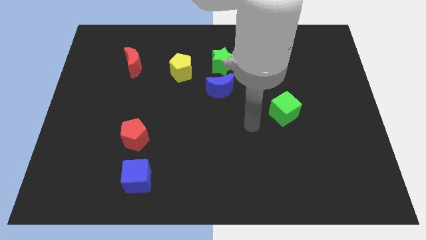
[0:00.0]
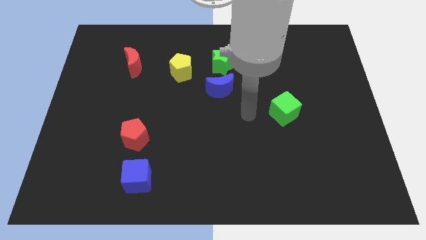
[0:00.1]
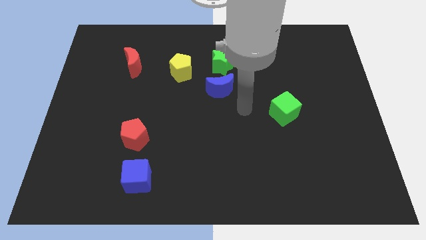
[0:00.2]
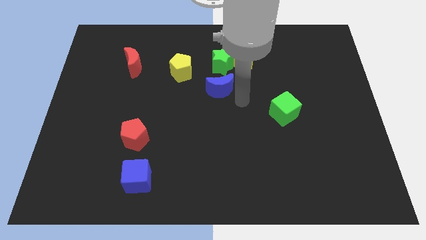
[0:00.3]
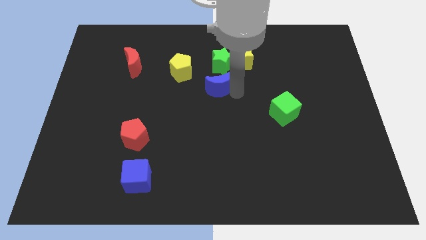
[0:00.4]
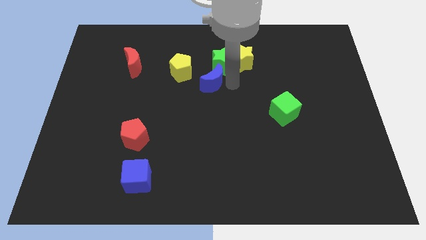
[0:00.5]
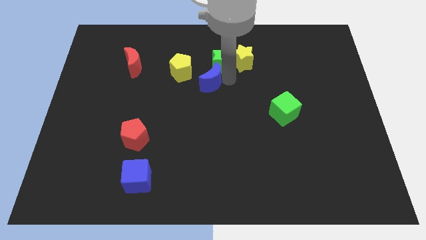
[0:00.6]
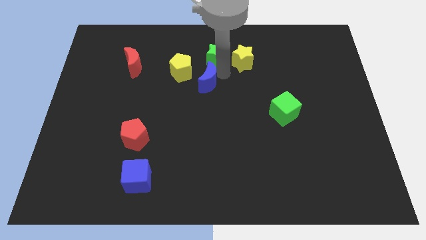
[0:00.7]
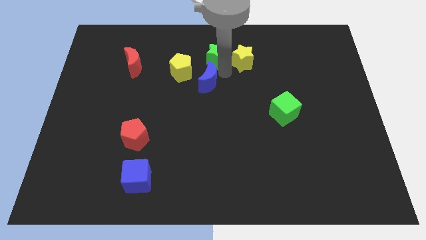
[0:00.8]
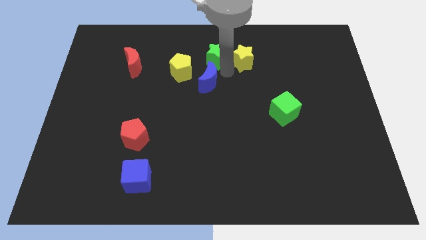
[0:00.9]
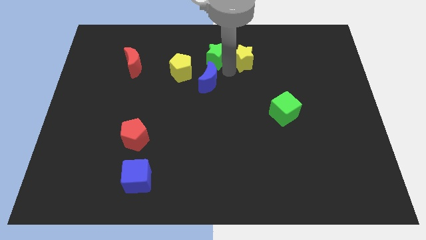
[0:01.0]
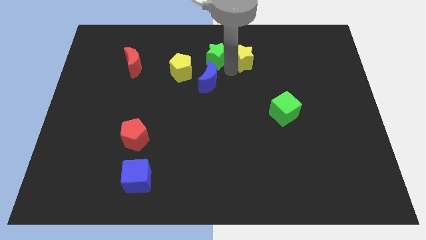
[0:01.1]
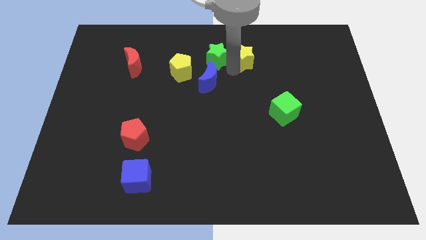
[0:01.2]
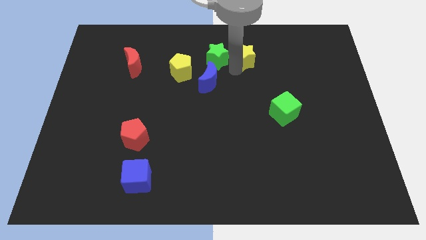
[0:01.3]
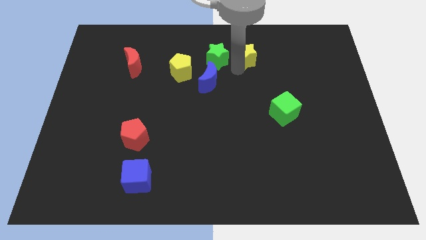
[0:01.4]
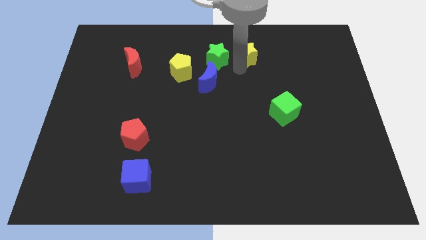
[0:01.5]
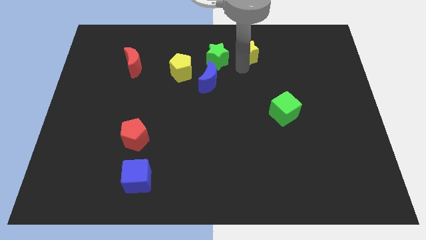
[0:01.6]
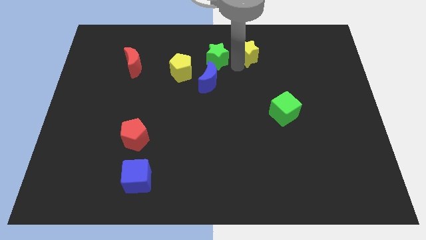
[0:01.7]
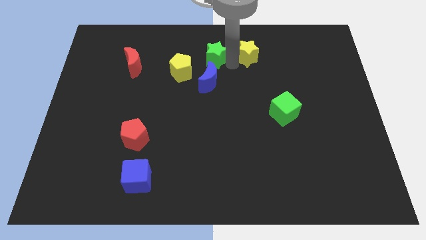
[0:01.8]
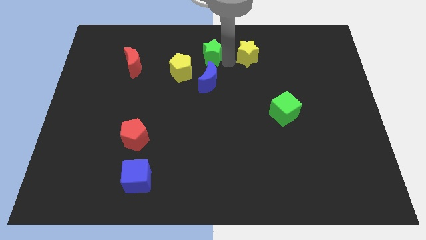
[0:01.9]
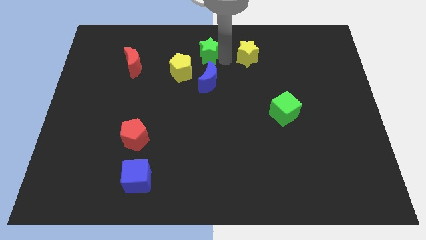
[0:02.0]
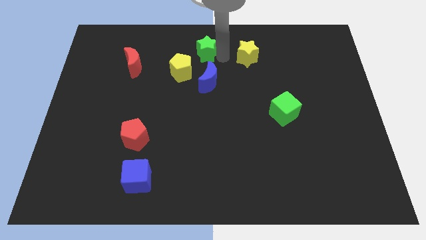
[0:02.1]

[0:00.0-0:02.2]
move the yellow star away from the green star

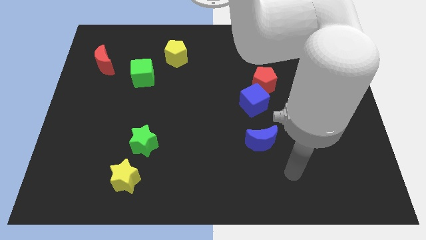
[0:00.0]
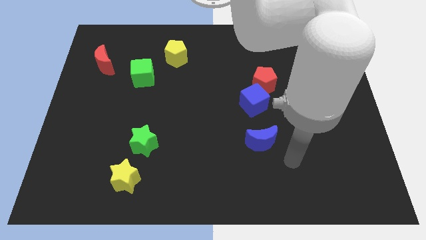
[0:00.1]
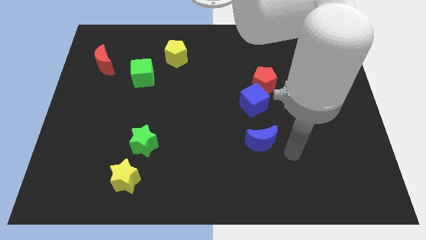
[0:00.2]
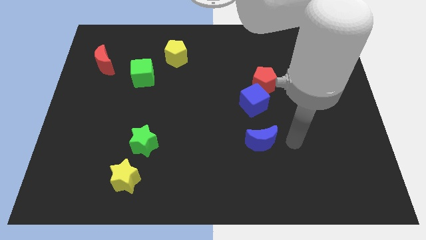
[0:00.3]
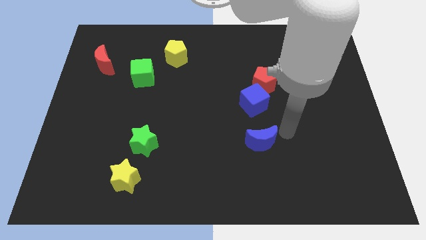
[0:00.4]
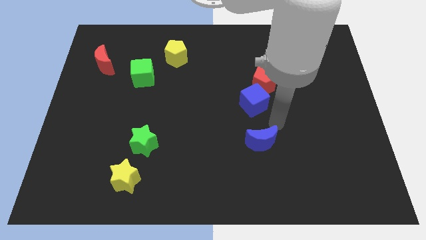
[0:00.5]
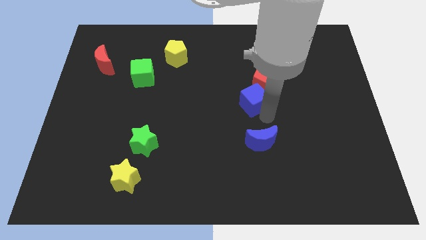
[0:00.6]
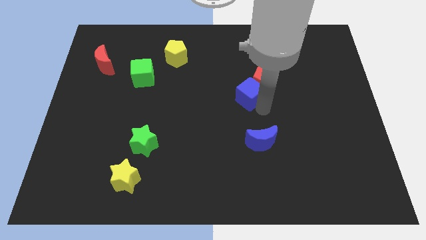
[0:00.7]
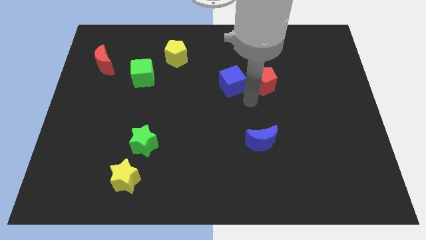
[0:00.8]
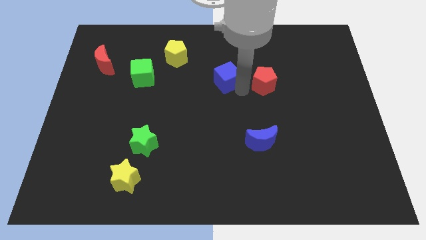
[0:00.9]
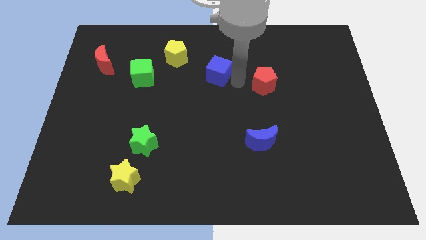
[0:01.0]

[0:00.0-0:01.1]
pull the red pentagon apart from the blue cube

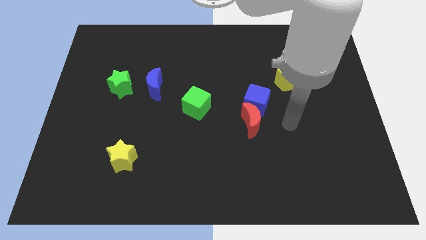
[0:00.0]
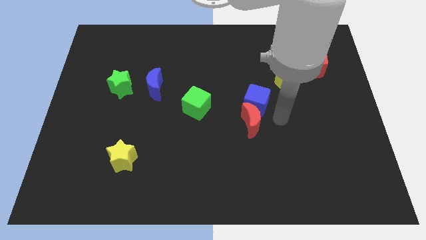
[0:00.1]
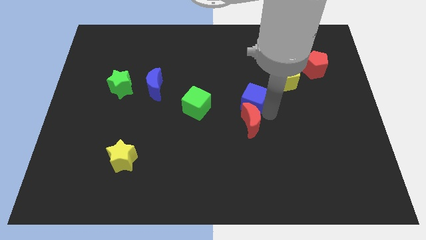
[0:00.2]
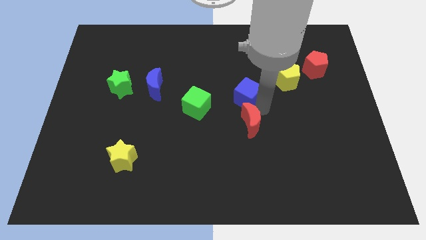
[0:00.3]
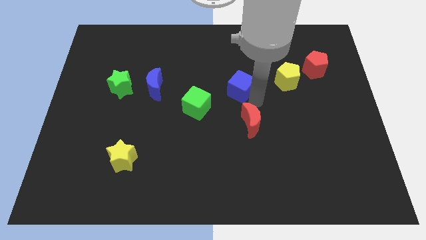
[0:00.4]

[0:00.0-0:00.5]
pull the red moon apart from the blue cube

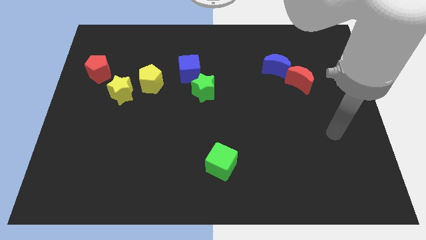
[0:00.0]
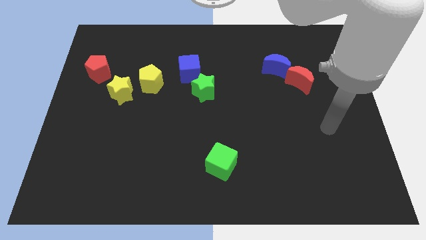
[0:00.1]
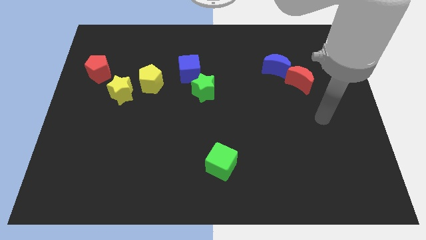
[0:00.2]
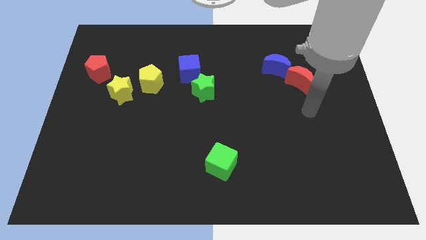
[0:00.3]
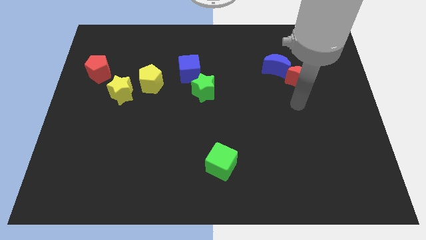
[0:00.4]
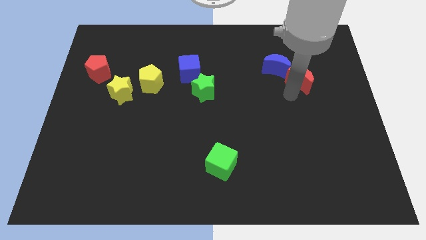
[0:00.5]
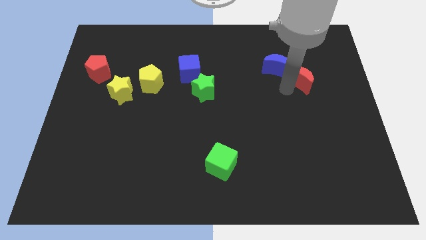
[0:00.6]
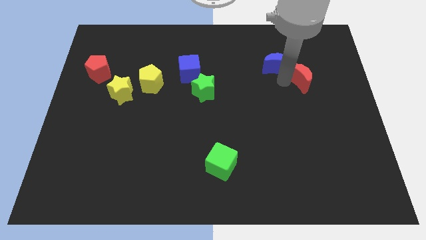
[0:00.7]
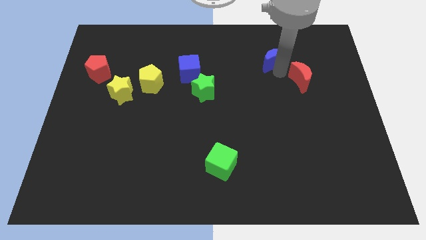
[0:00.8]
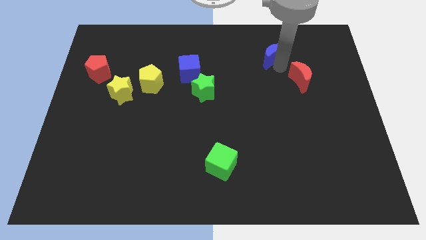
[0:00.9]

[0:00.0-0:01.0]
move the red moon away from the blue moon

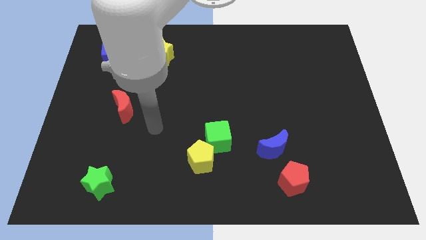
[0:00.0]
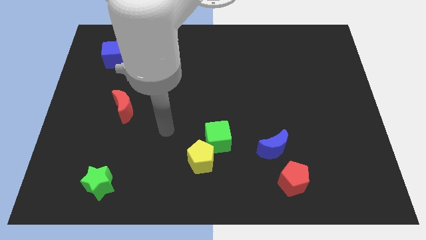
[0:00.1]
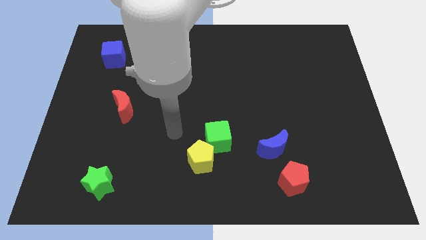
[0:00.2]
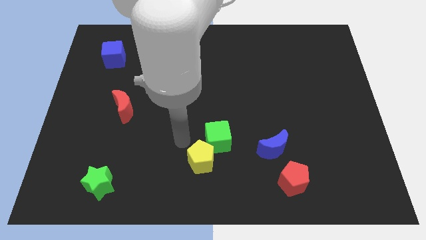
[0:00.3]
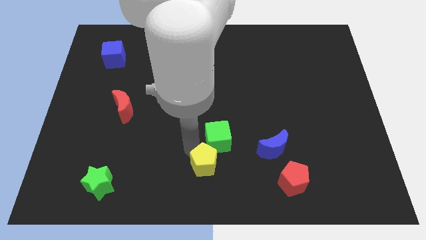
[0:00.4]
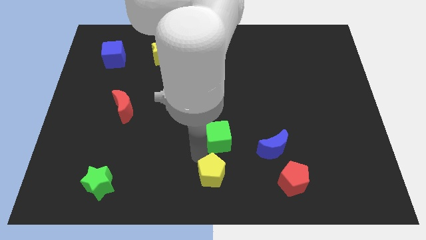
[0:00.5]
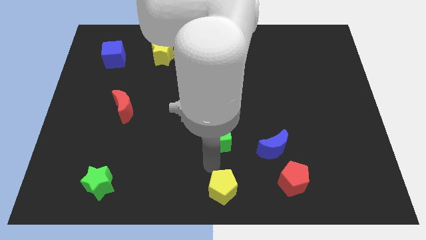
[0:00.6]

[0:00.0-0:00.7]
pull the green cube apart from the yellow pentagon

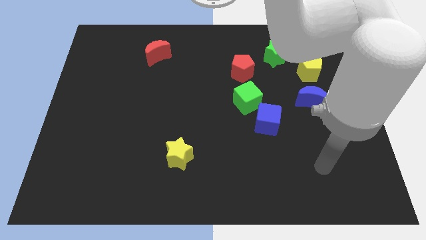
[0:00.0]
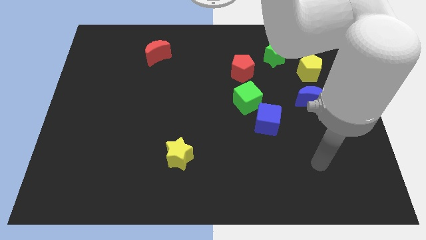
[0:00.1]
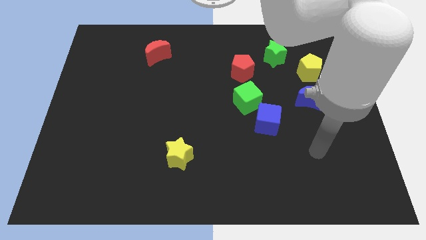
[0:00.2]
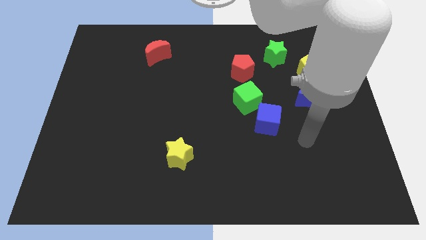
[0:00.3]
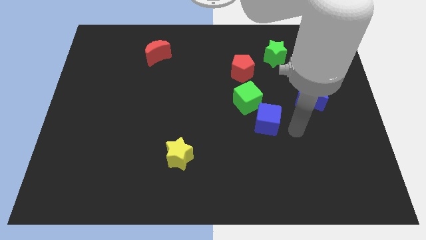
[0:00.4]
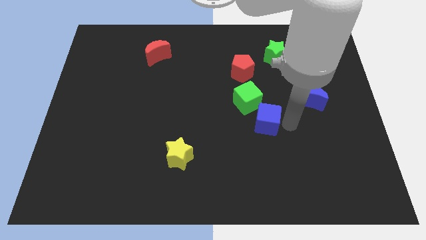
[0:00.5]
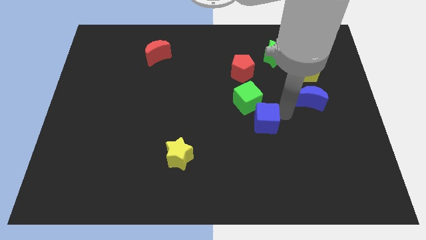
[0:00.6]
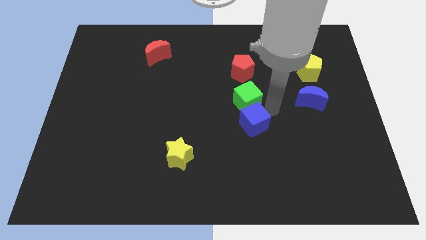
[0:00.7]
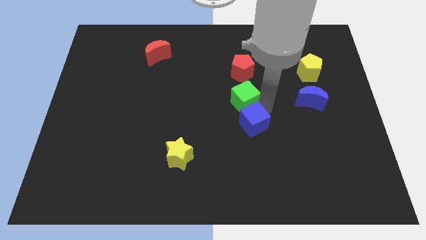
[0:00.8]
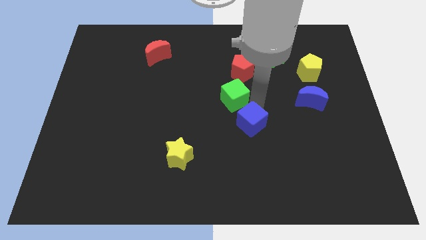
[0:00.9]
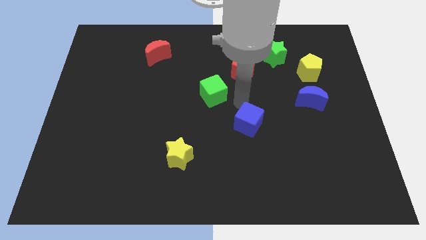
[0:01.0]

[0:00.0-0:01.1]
pull the blue cube apart from the green cube

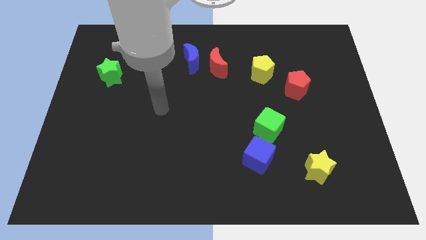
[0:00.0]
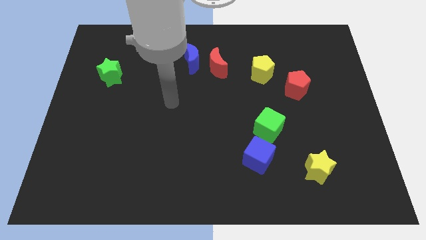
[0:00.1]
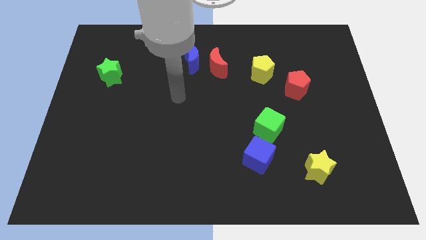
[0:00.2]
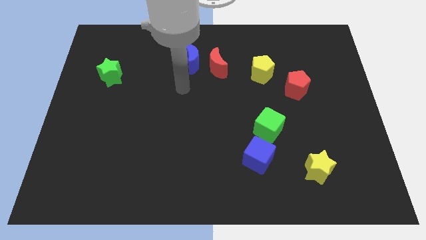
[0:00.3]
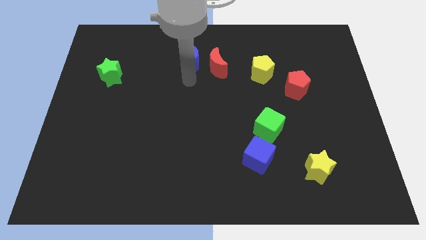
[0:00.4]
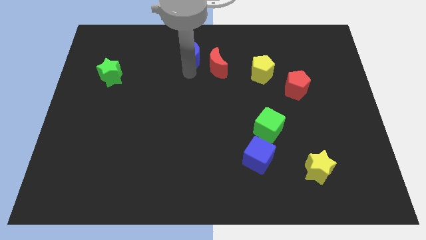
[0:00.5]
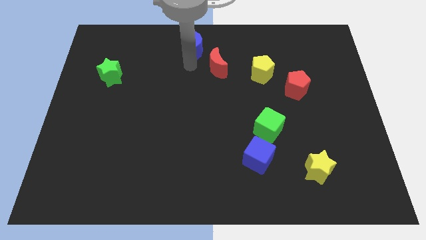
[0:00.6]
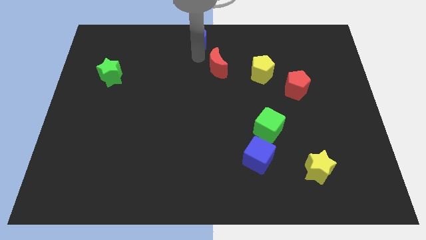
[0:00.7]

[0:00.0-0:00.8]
pull the red moon apart from the blue moon

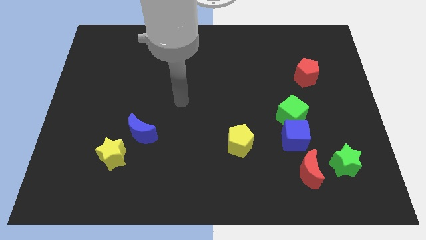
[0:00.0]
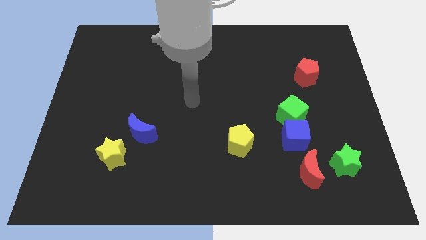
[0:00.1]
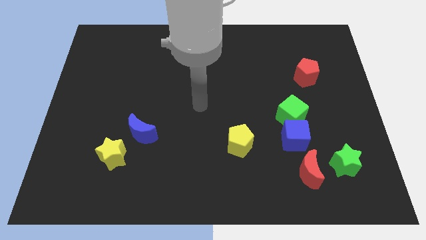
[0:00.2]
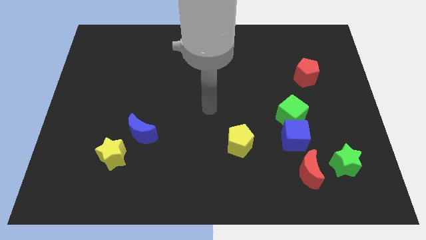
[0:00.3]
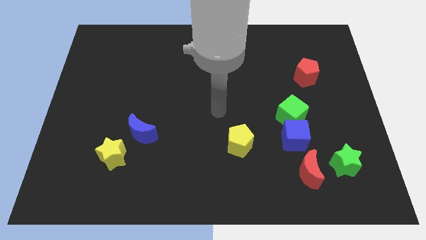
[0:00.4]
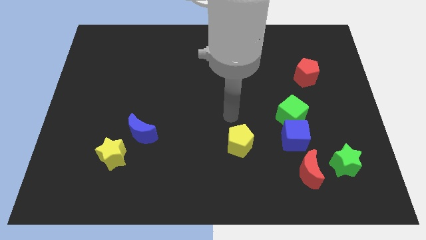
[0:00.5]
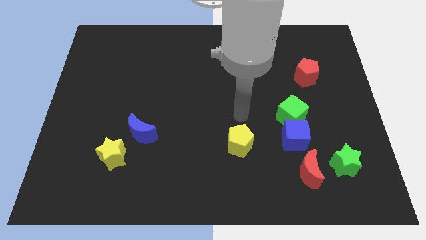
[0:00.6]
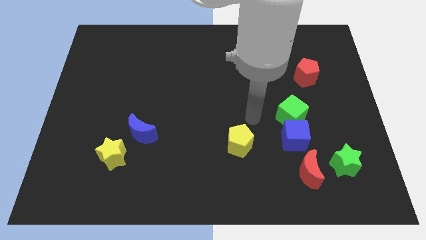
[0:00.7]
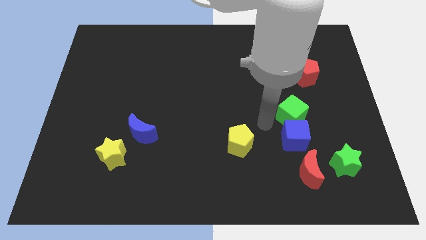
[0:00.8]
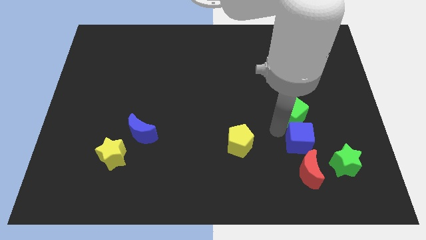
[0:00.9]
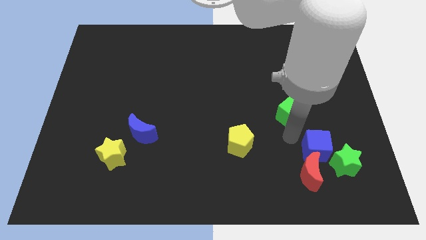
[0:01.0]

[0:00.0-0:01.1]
move the green cube away from the blue cube

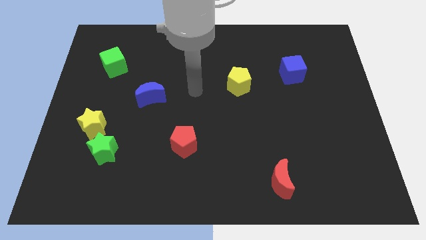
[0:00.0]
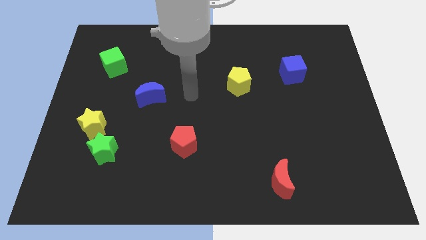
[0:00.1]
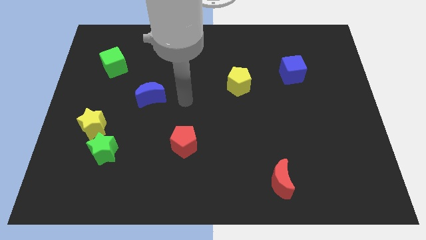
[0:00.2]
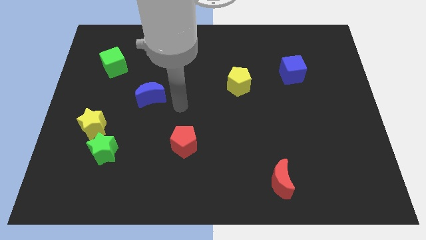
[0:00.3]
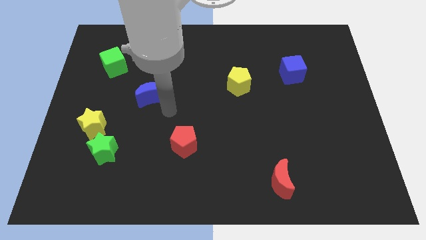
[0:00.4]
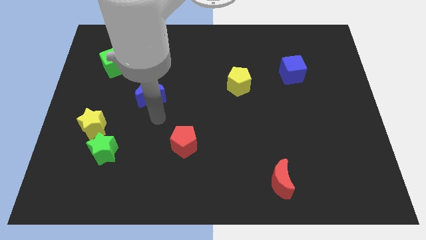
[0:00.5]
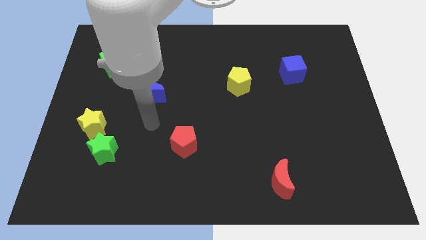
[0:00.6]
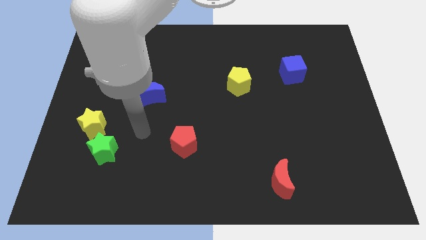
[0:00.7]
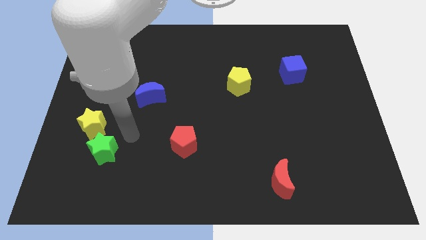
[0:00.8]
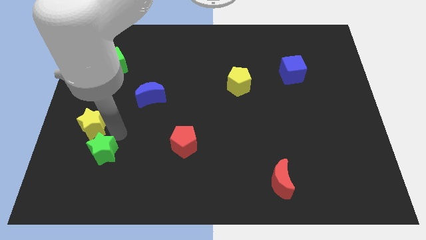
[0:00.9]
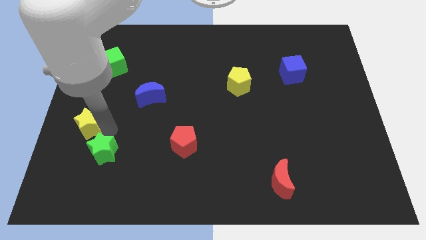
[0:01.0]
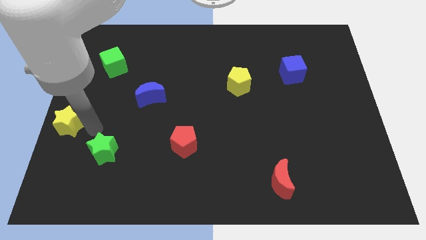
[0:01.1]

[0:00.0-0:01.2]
move the green star away from the yellow star
